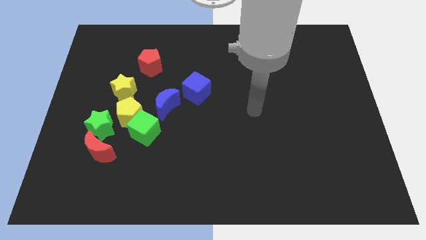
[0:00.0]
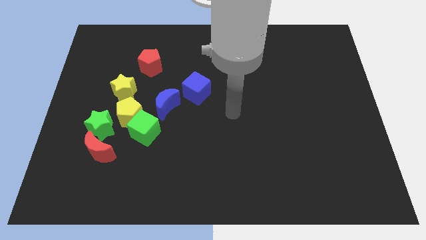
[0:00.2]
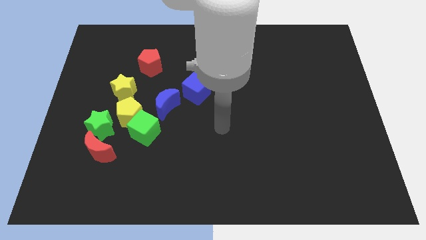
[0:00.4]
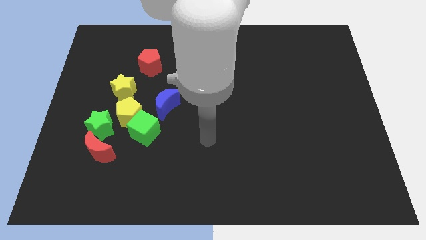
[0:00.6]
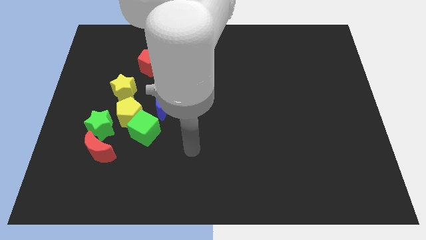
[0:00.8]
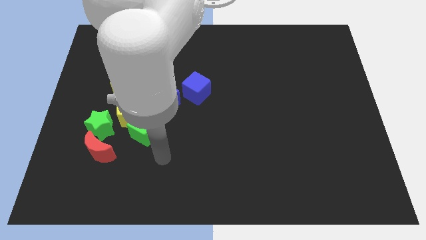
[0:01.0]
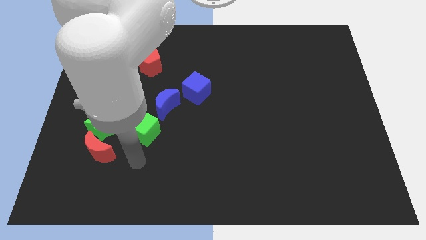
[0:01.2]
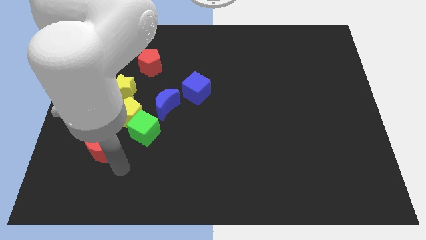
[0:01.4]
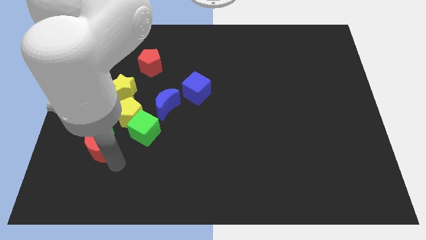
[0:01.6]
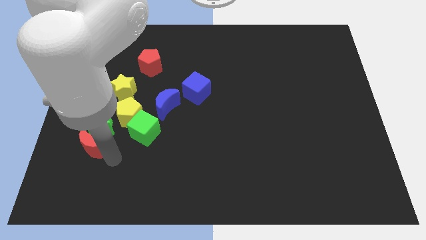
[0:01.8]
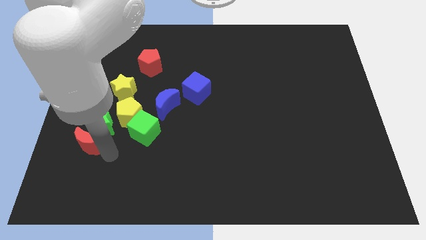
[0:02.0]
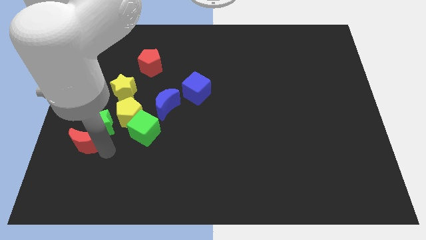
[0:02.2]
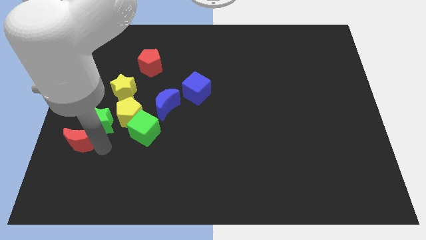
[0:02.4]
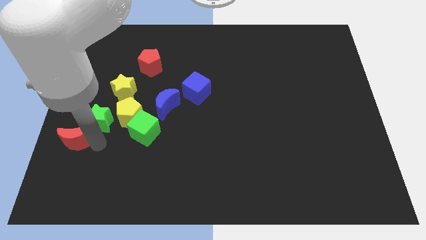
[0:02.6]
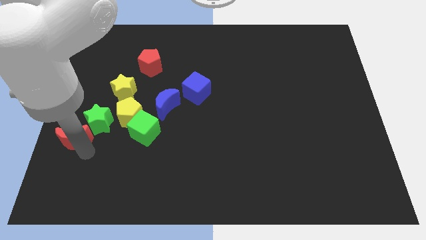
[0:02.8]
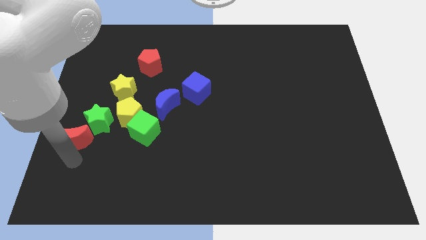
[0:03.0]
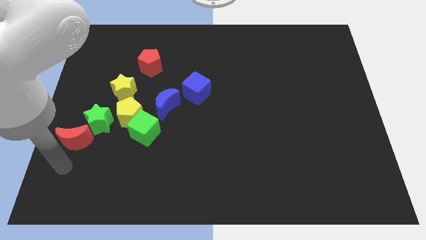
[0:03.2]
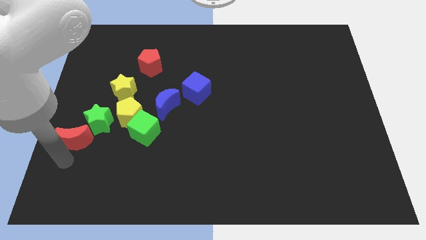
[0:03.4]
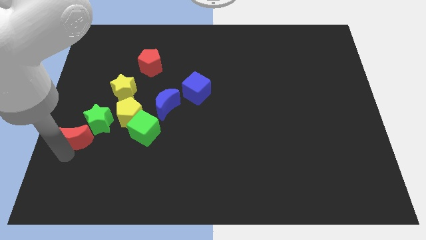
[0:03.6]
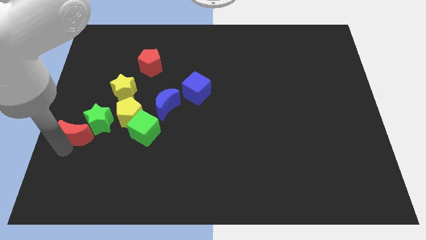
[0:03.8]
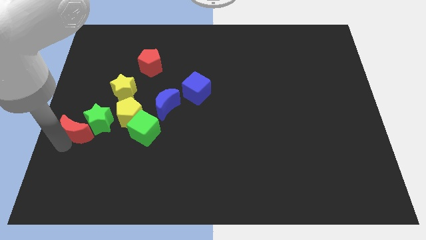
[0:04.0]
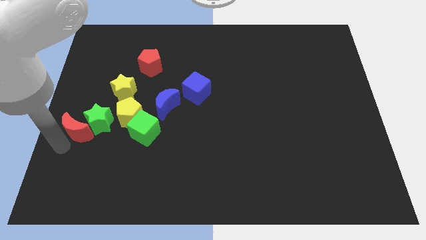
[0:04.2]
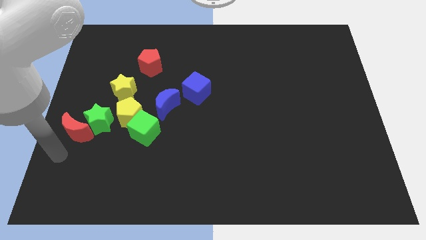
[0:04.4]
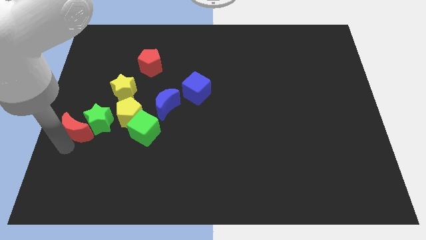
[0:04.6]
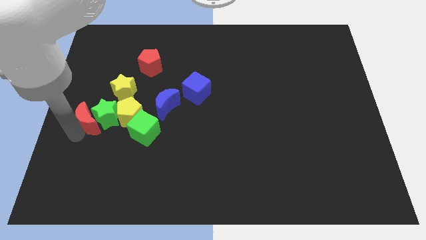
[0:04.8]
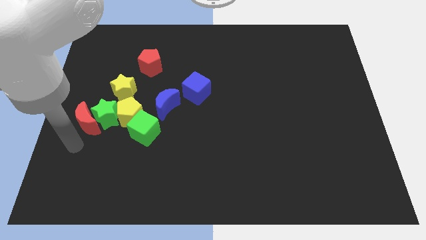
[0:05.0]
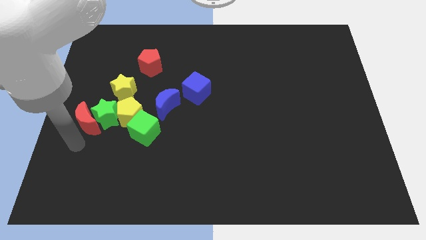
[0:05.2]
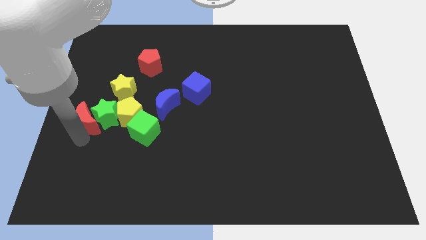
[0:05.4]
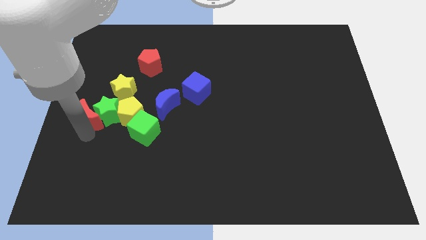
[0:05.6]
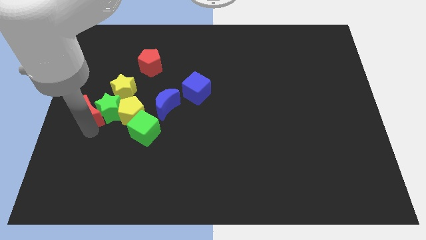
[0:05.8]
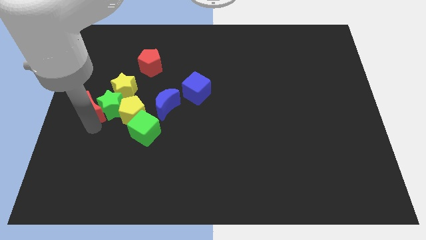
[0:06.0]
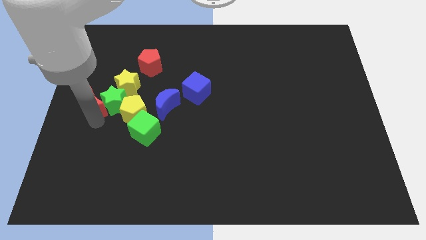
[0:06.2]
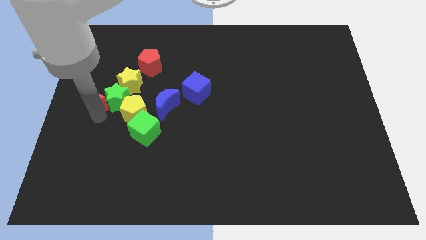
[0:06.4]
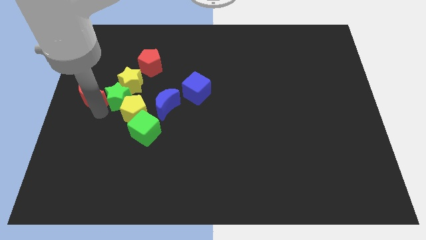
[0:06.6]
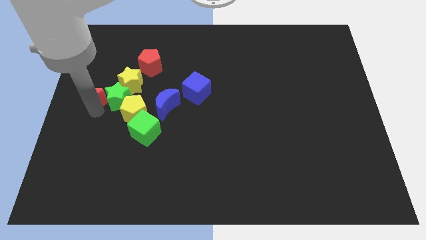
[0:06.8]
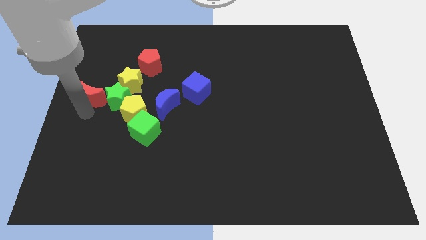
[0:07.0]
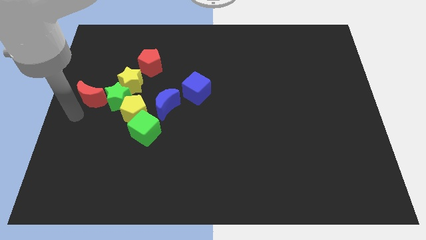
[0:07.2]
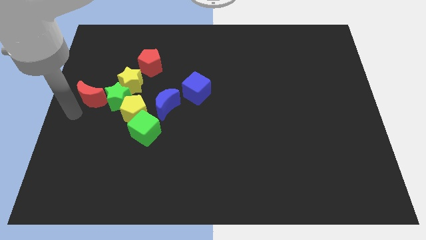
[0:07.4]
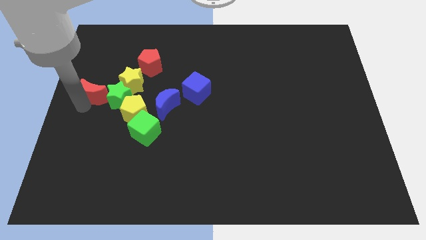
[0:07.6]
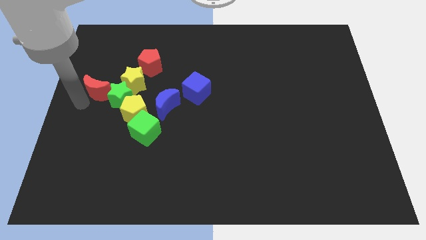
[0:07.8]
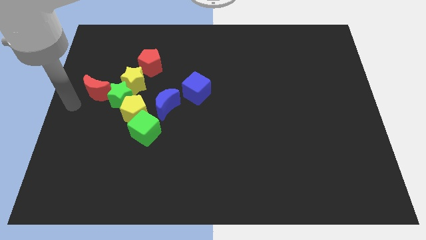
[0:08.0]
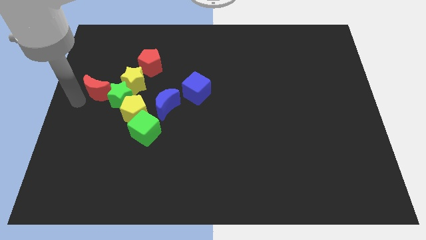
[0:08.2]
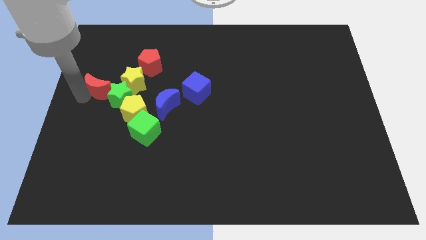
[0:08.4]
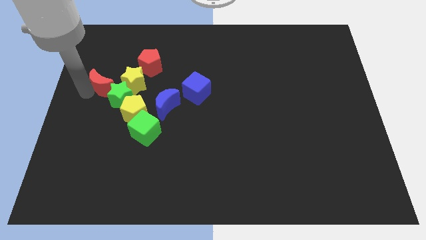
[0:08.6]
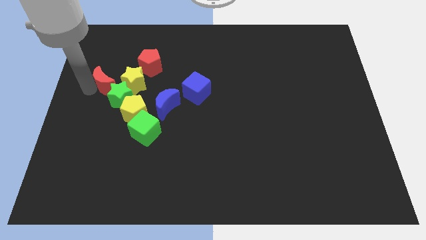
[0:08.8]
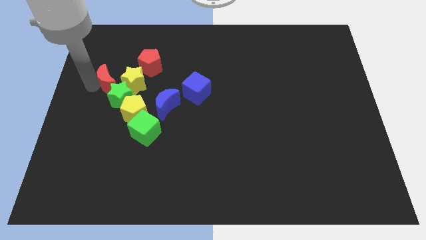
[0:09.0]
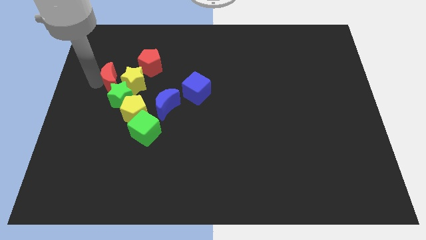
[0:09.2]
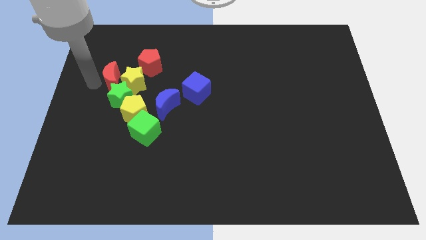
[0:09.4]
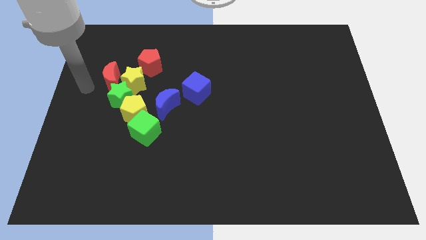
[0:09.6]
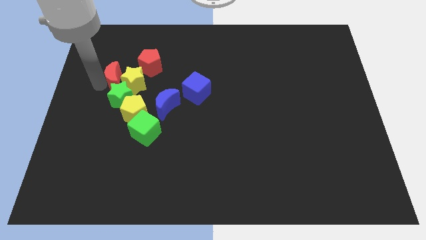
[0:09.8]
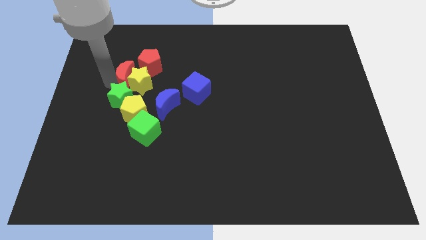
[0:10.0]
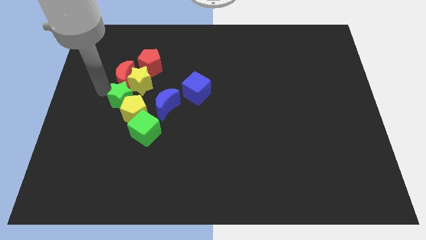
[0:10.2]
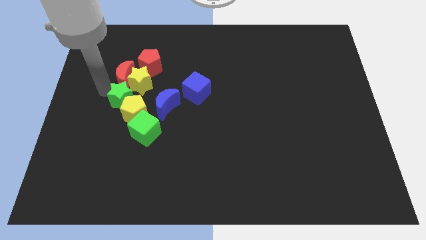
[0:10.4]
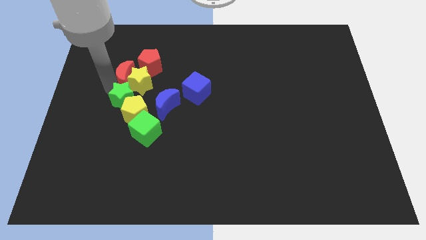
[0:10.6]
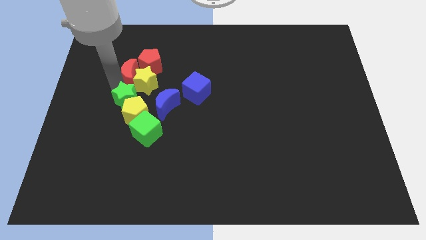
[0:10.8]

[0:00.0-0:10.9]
put the red moon close to the red pentagon

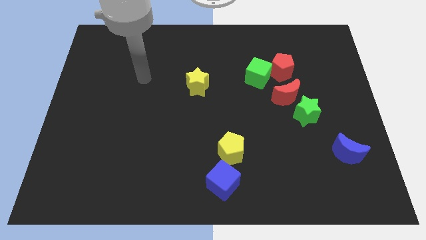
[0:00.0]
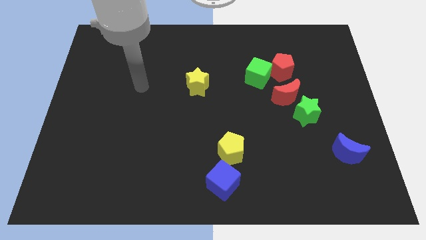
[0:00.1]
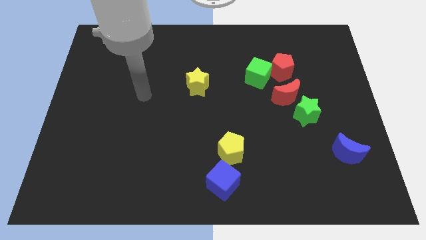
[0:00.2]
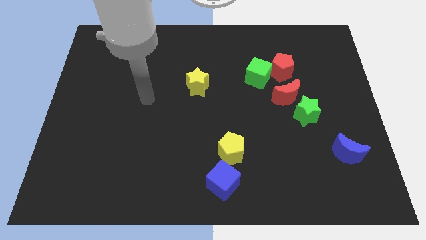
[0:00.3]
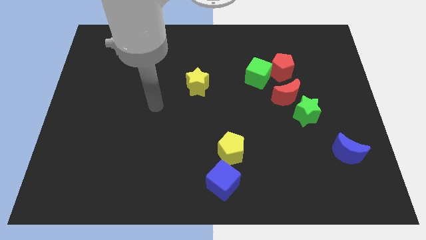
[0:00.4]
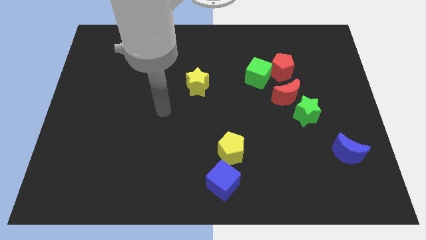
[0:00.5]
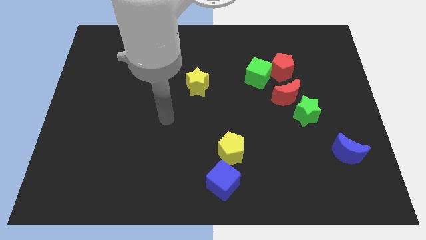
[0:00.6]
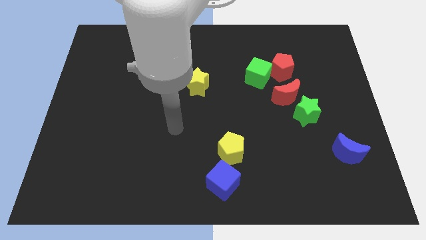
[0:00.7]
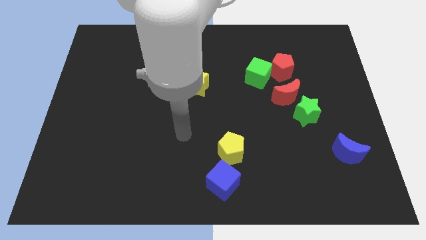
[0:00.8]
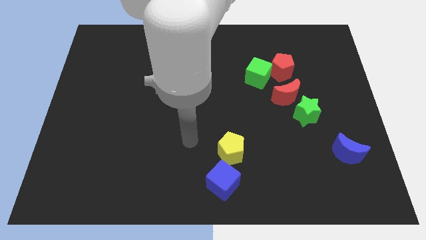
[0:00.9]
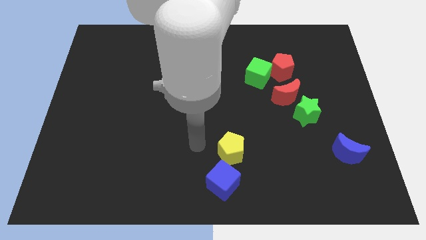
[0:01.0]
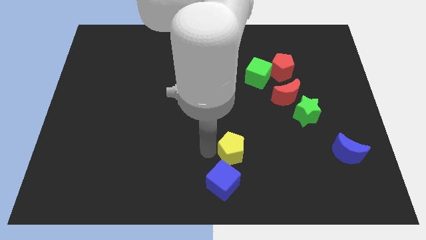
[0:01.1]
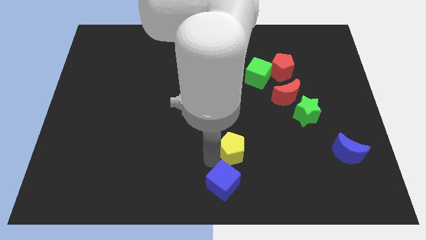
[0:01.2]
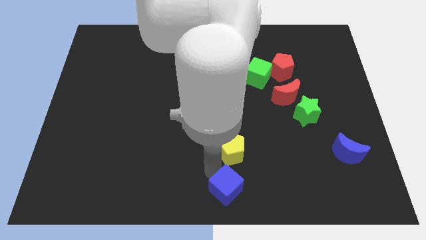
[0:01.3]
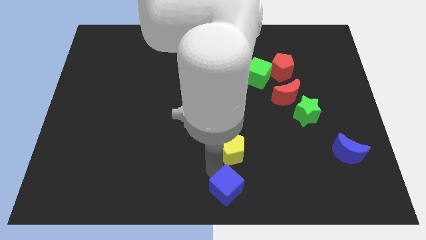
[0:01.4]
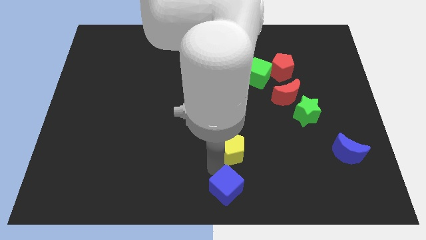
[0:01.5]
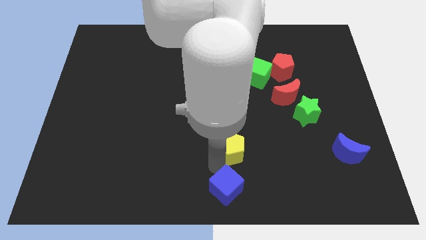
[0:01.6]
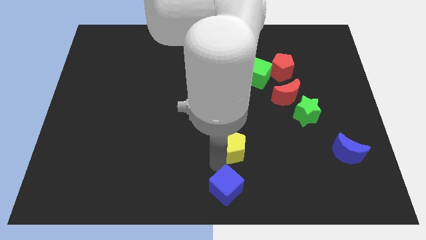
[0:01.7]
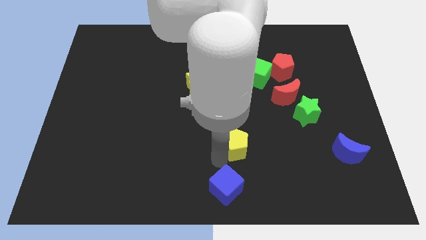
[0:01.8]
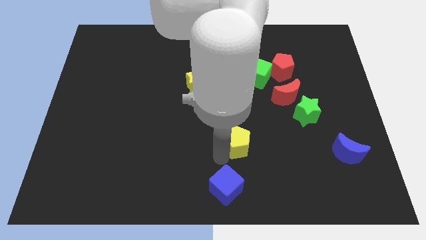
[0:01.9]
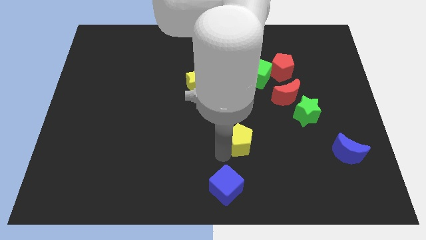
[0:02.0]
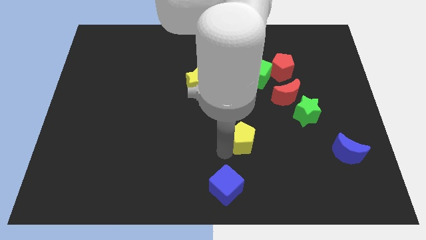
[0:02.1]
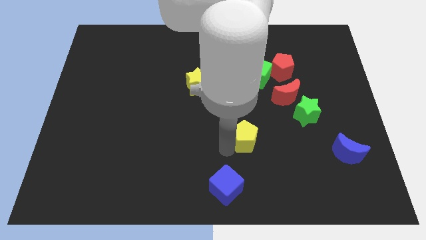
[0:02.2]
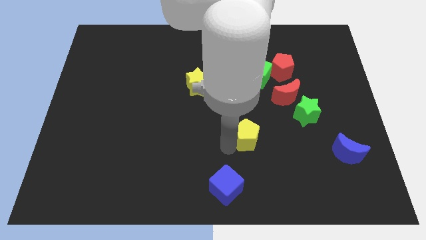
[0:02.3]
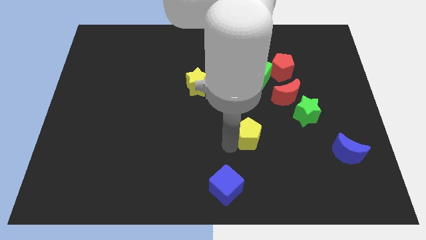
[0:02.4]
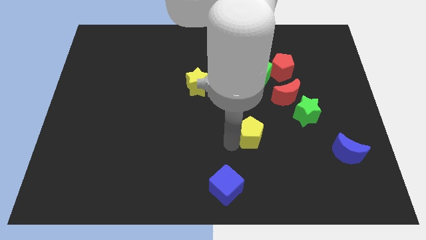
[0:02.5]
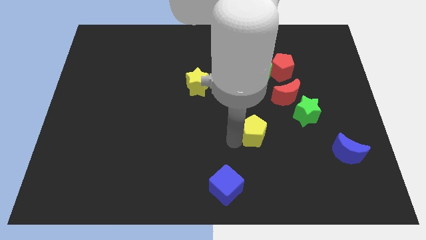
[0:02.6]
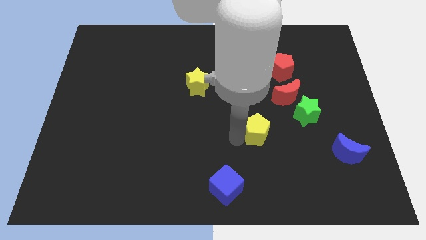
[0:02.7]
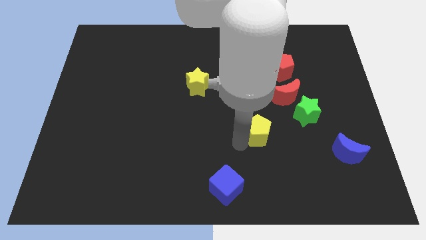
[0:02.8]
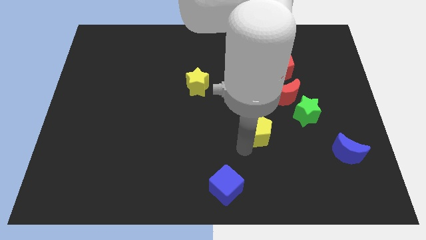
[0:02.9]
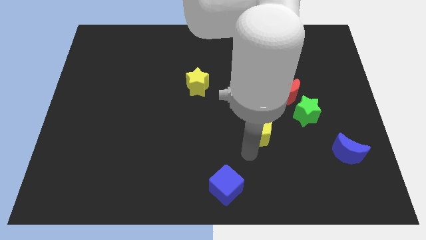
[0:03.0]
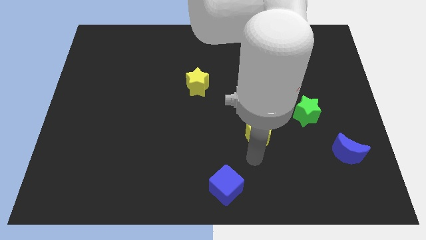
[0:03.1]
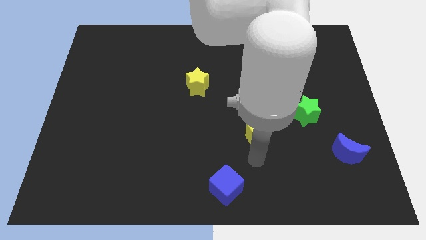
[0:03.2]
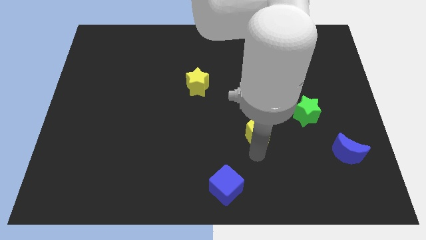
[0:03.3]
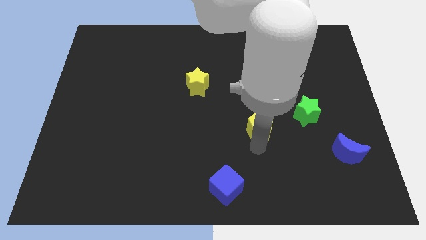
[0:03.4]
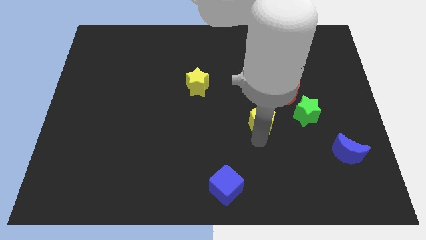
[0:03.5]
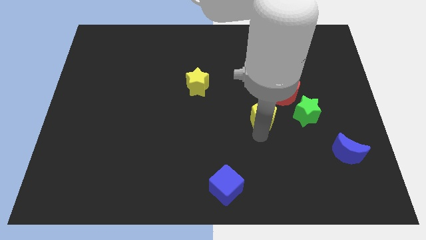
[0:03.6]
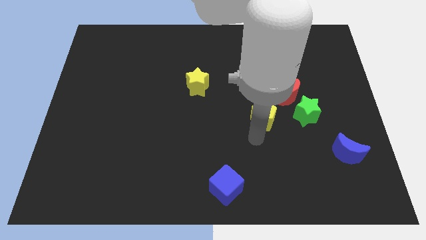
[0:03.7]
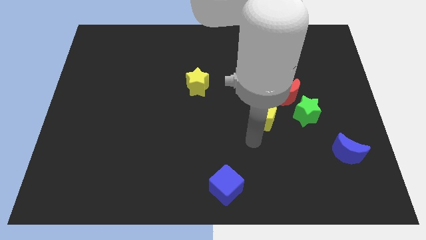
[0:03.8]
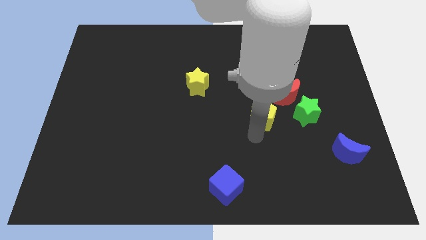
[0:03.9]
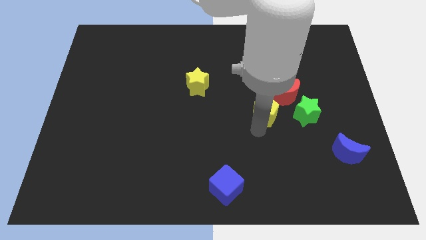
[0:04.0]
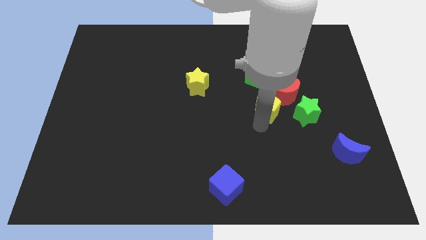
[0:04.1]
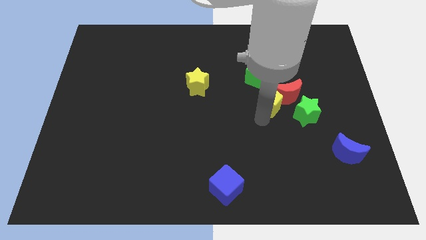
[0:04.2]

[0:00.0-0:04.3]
move the yellow pentagon to the red moon
